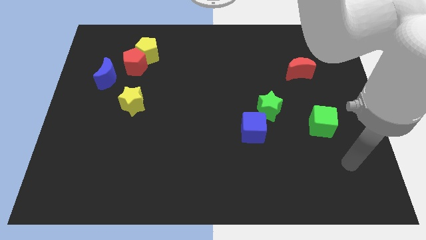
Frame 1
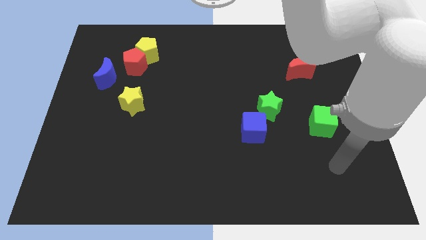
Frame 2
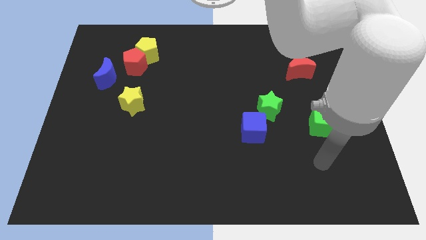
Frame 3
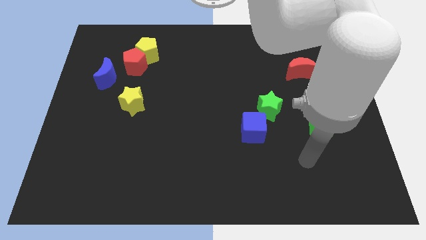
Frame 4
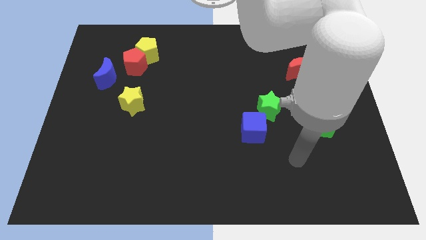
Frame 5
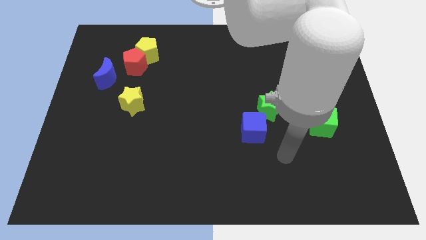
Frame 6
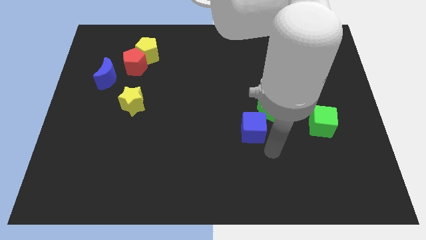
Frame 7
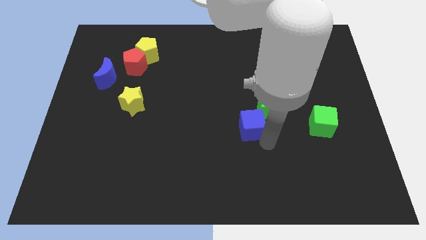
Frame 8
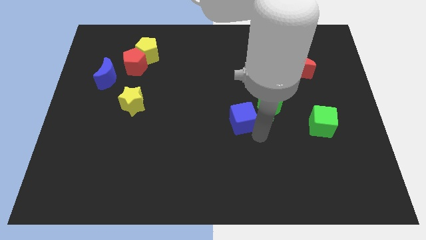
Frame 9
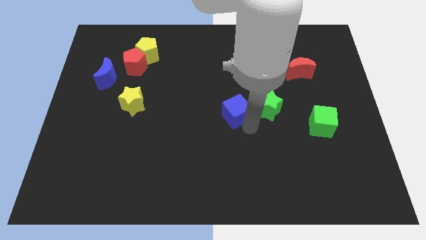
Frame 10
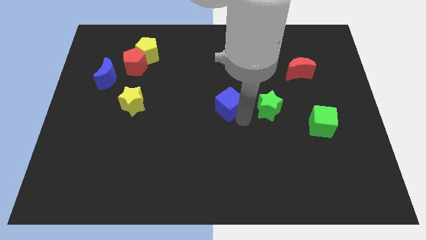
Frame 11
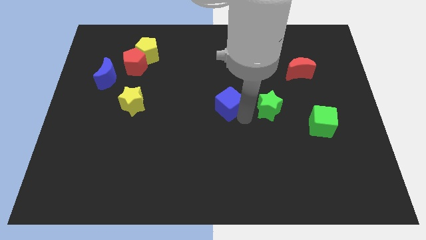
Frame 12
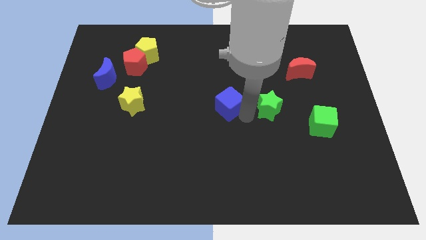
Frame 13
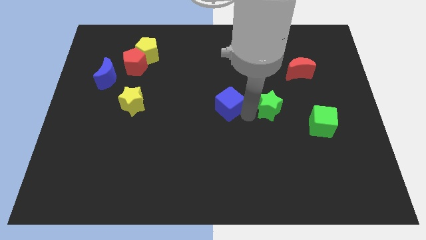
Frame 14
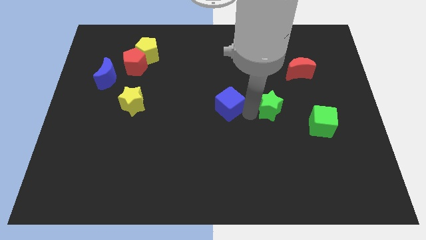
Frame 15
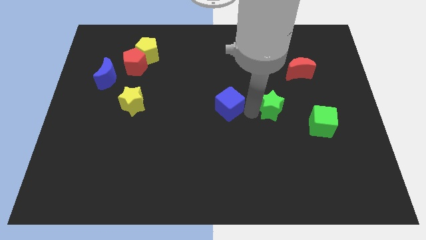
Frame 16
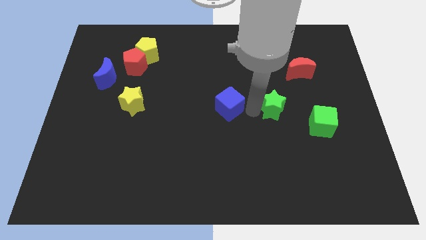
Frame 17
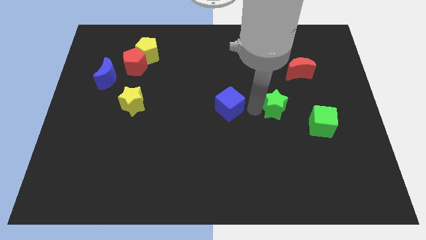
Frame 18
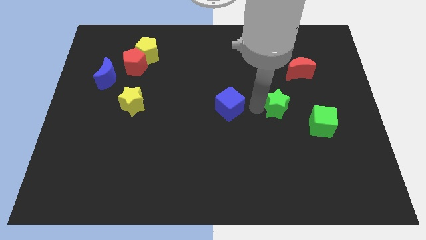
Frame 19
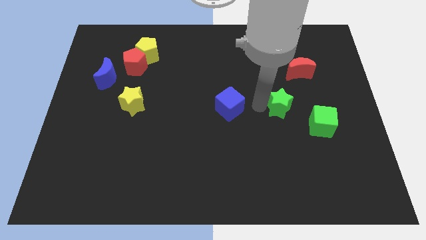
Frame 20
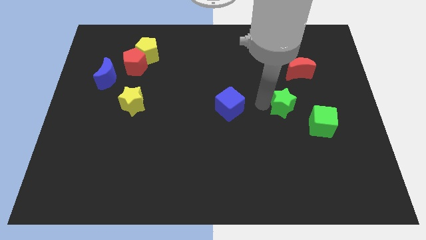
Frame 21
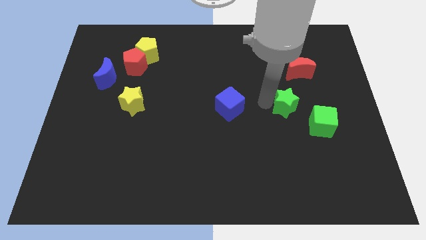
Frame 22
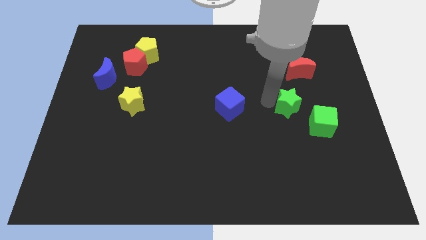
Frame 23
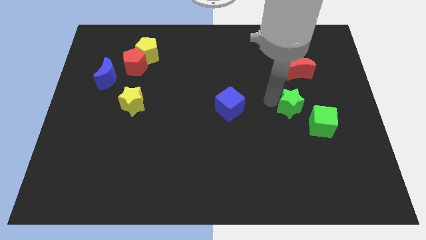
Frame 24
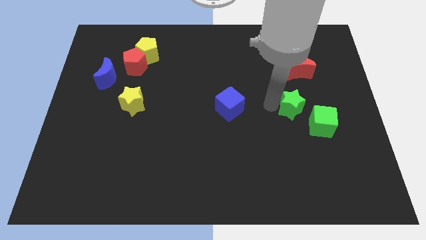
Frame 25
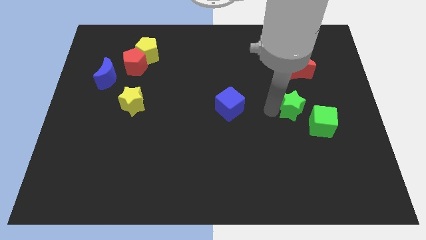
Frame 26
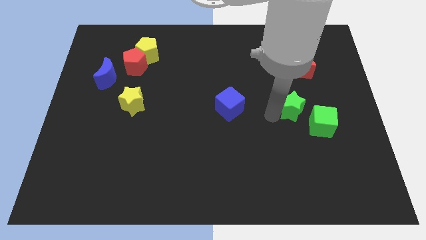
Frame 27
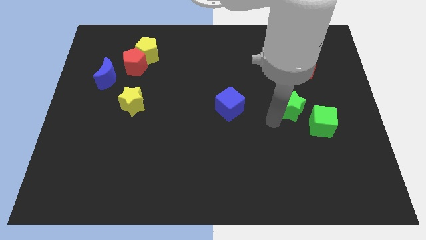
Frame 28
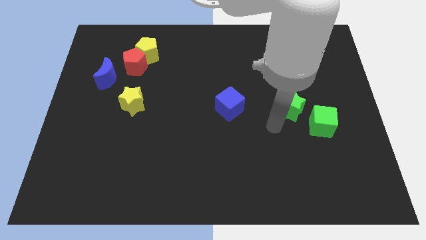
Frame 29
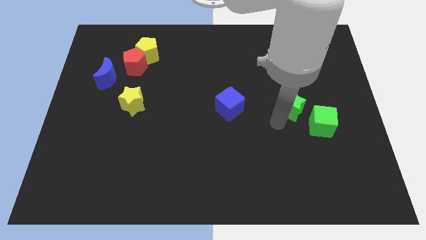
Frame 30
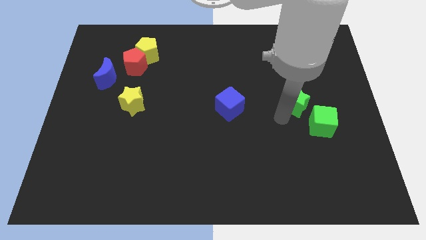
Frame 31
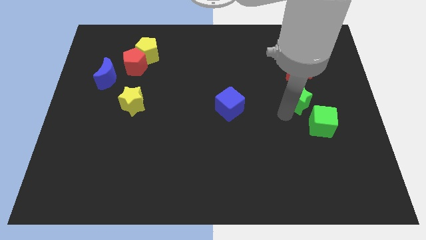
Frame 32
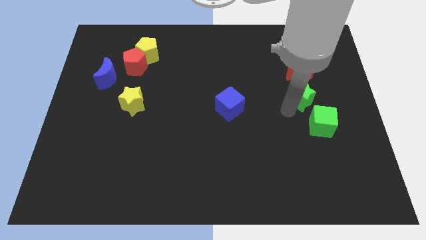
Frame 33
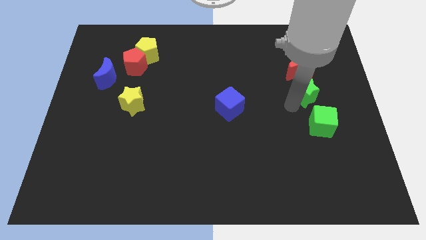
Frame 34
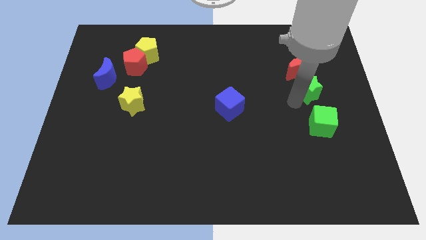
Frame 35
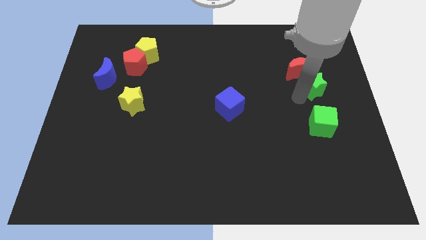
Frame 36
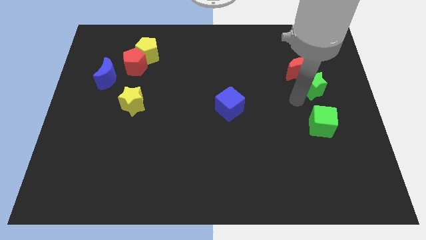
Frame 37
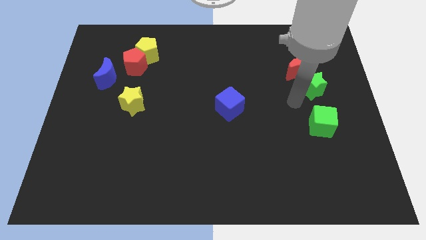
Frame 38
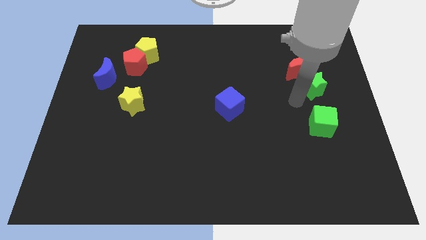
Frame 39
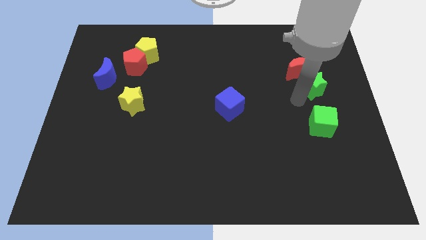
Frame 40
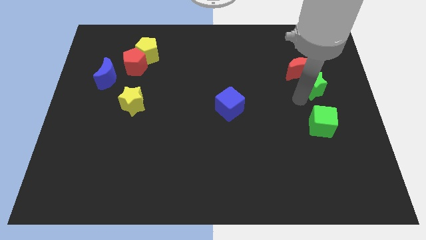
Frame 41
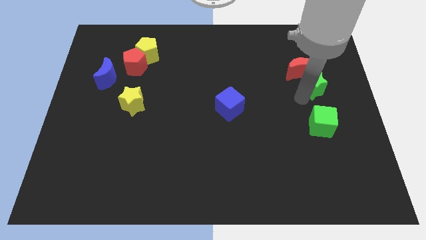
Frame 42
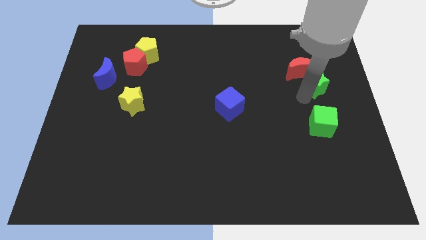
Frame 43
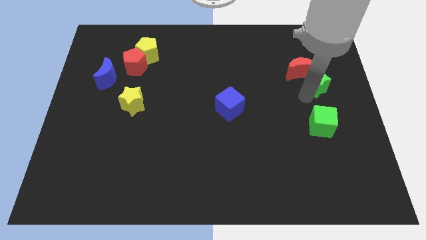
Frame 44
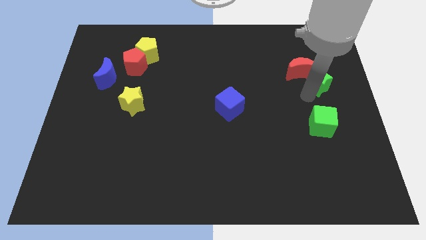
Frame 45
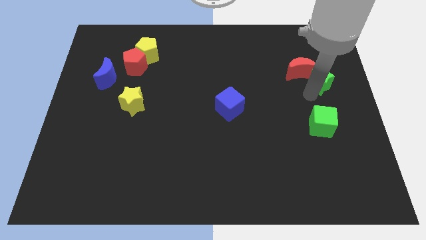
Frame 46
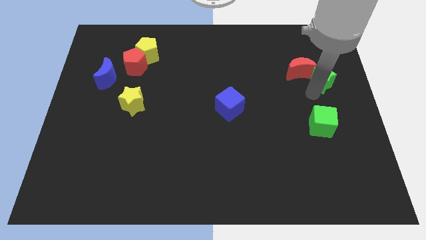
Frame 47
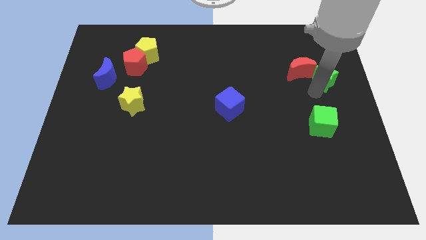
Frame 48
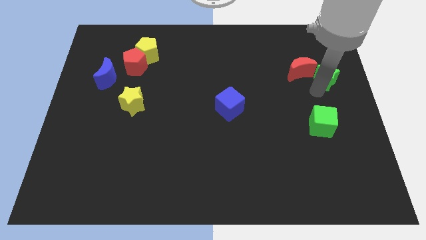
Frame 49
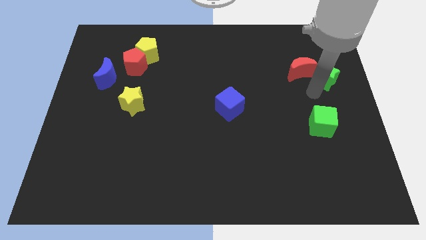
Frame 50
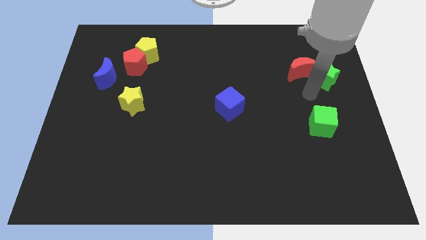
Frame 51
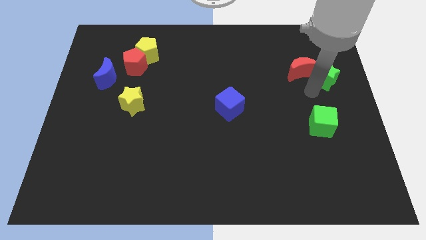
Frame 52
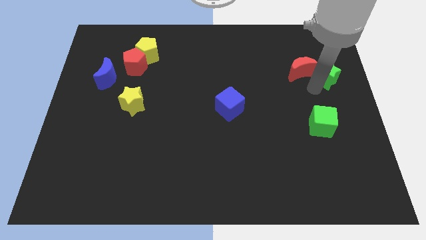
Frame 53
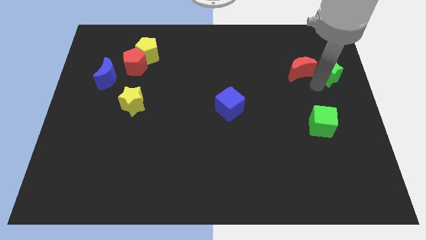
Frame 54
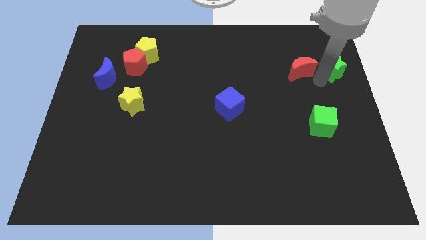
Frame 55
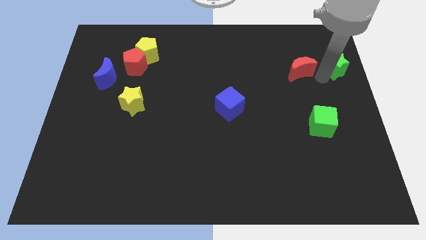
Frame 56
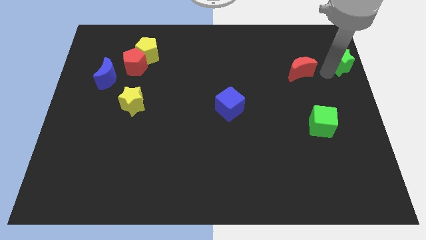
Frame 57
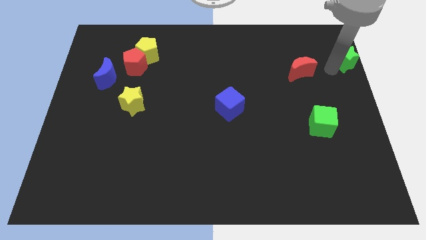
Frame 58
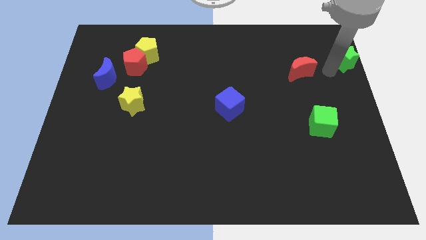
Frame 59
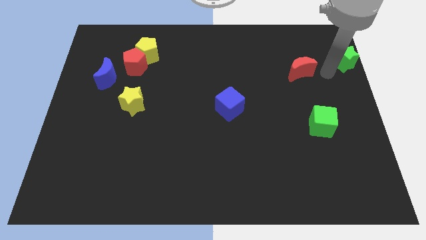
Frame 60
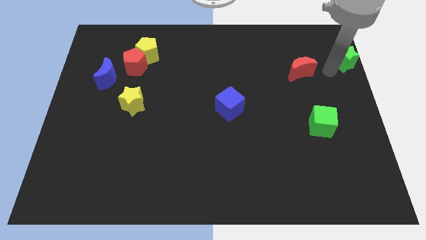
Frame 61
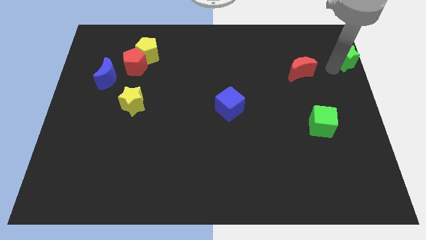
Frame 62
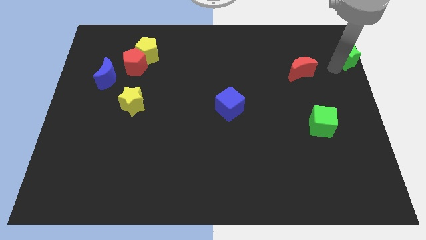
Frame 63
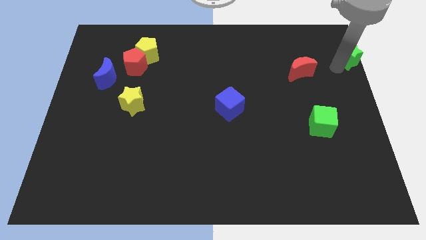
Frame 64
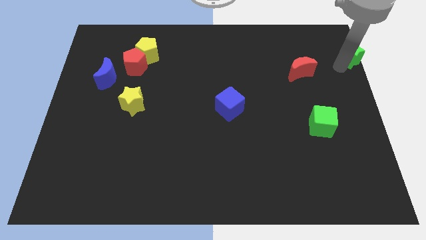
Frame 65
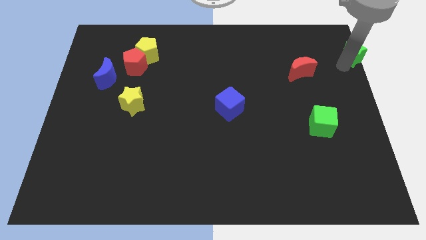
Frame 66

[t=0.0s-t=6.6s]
move the green star to the top right
